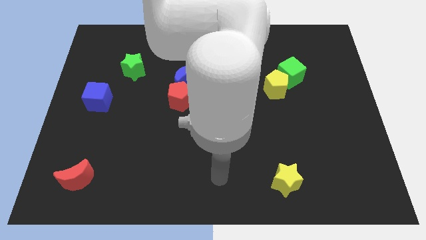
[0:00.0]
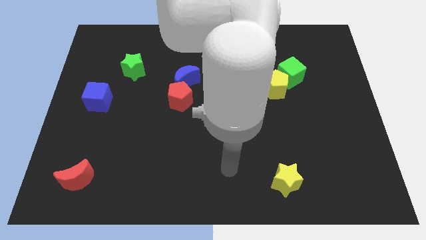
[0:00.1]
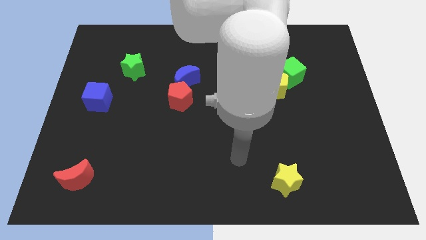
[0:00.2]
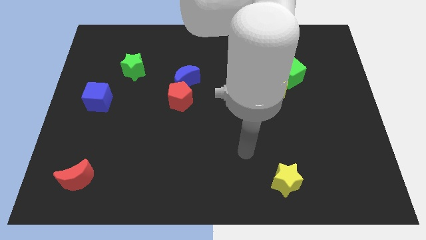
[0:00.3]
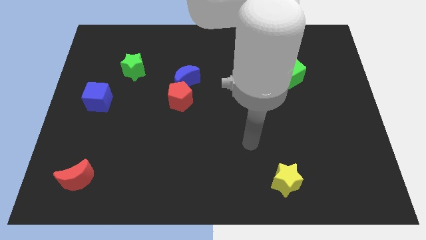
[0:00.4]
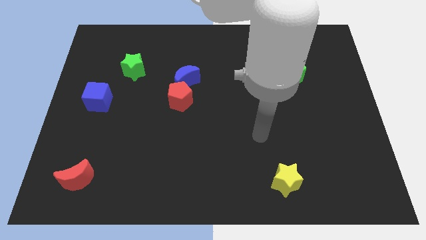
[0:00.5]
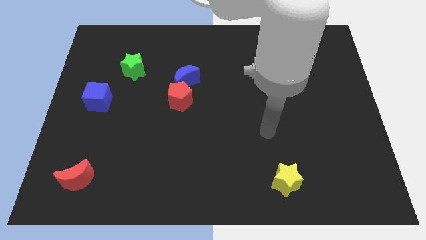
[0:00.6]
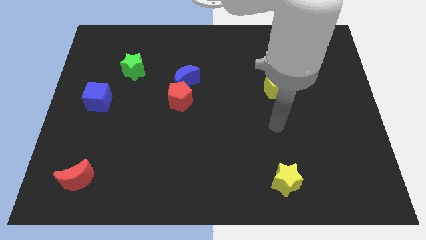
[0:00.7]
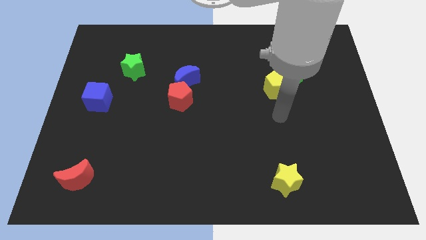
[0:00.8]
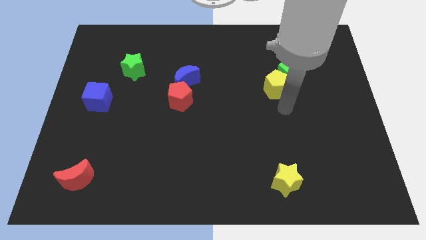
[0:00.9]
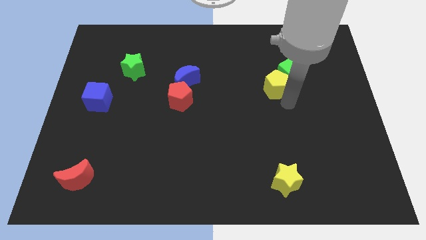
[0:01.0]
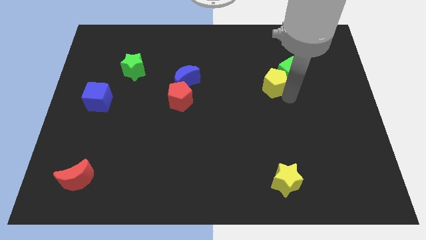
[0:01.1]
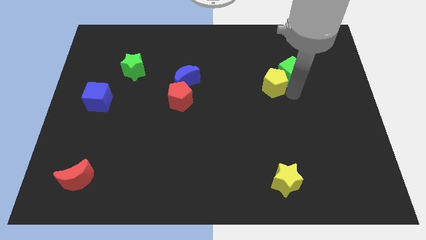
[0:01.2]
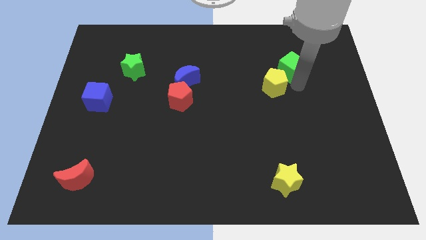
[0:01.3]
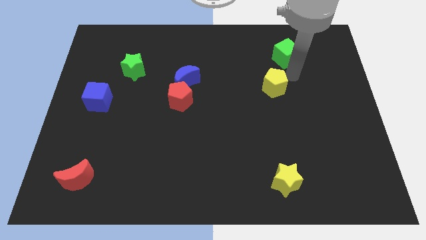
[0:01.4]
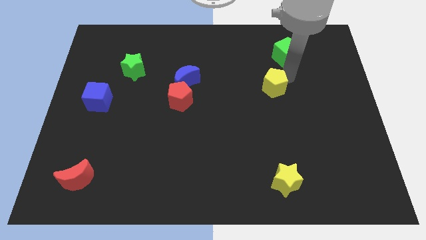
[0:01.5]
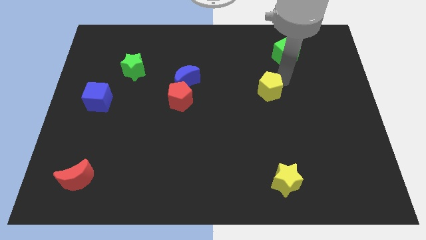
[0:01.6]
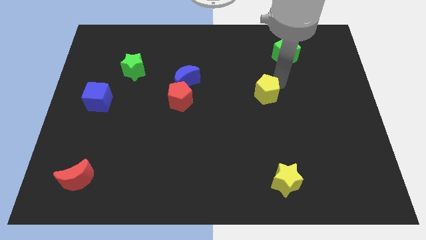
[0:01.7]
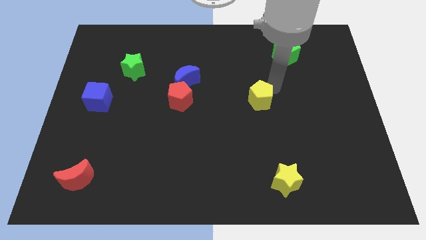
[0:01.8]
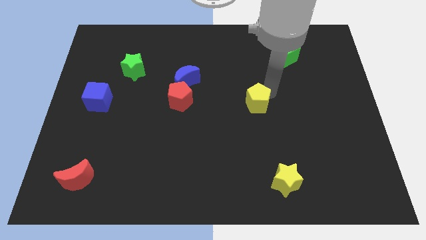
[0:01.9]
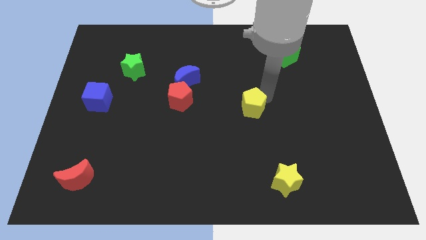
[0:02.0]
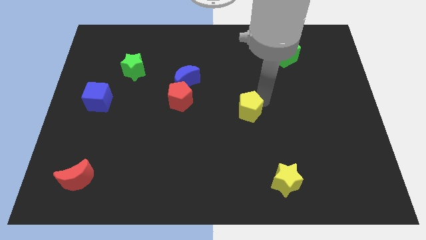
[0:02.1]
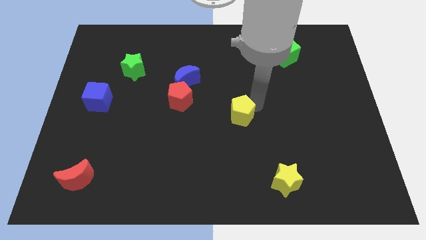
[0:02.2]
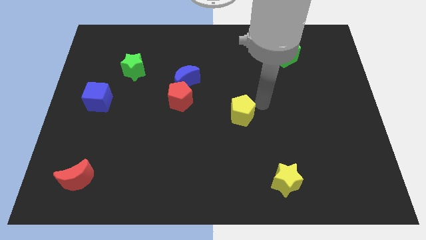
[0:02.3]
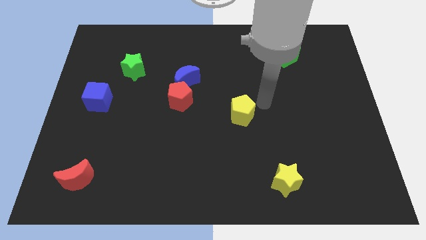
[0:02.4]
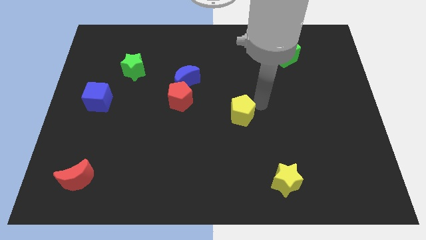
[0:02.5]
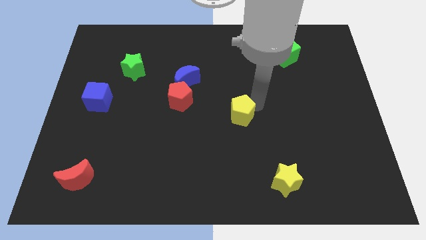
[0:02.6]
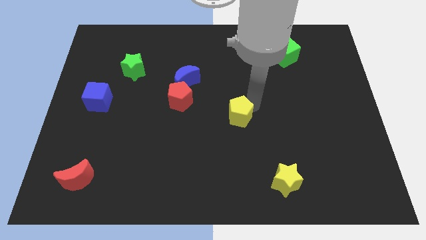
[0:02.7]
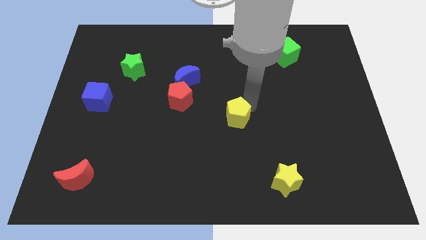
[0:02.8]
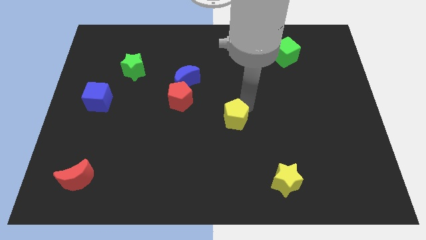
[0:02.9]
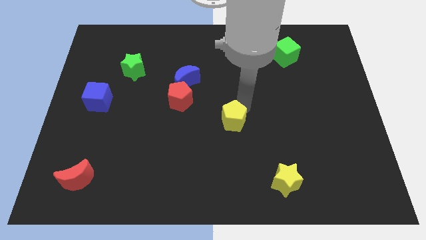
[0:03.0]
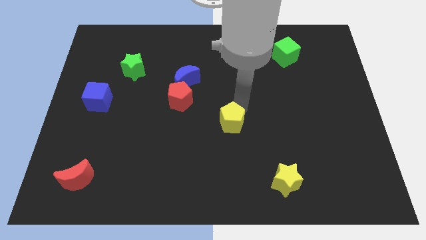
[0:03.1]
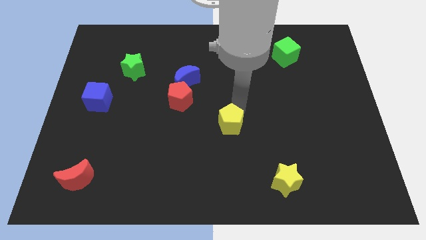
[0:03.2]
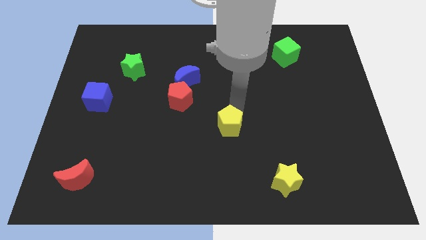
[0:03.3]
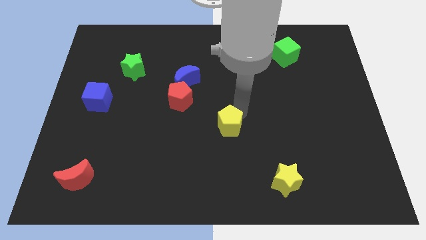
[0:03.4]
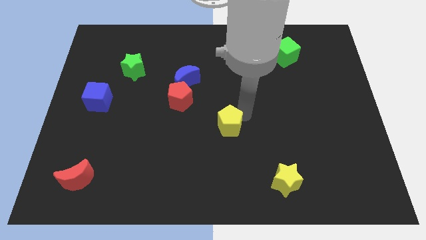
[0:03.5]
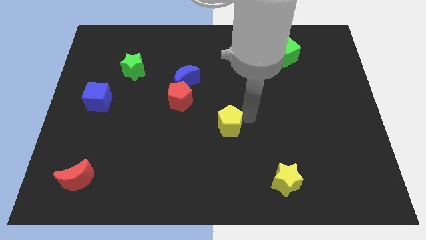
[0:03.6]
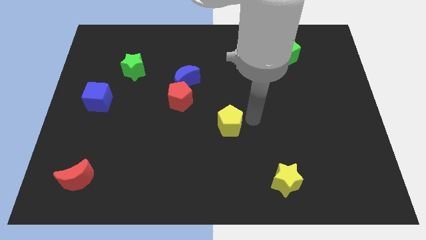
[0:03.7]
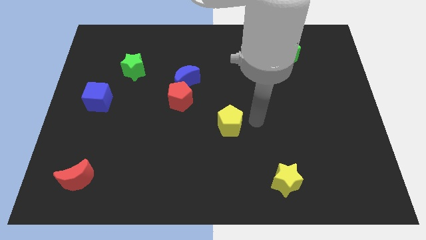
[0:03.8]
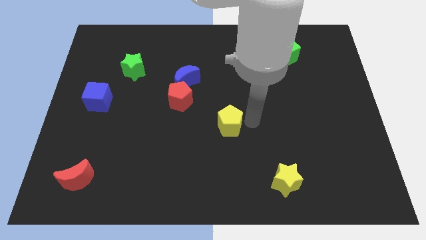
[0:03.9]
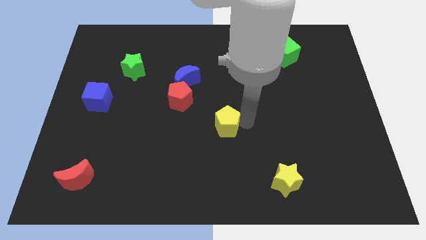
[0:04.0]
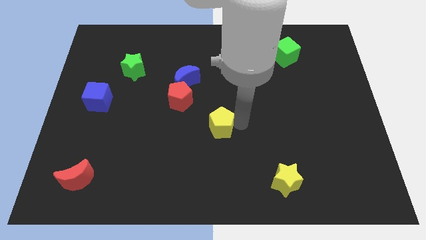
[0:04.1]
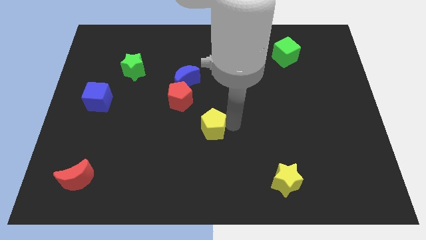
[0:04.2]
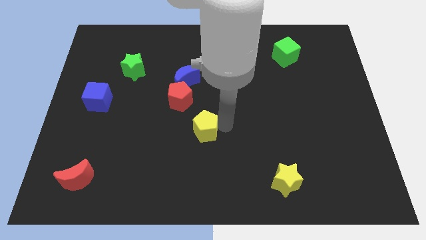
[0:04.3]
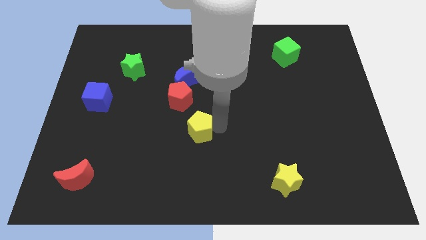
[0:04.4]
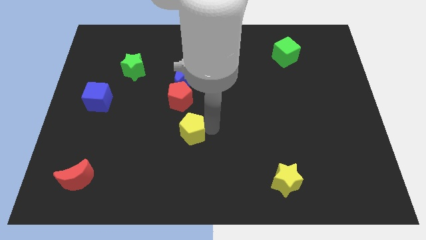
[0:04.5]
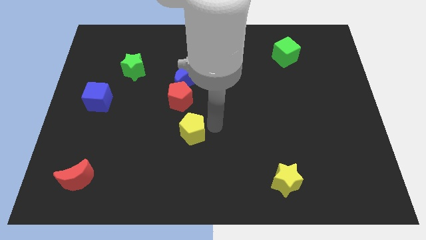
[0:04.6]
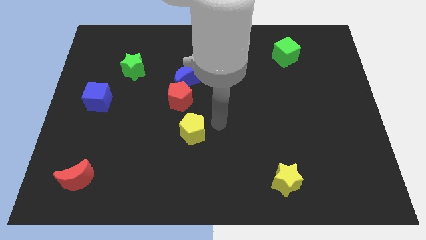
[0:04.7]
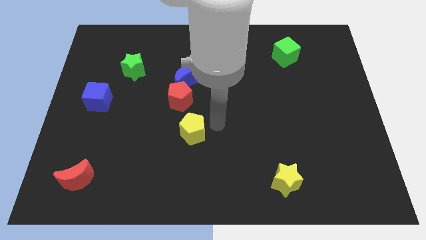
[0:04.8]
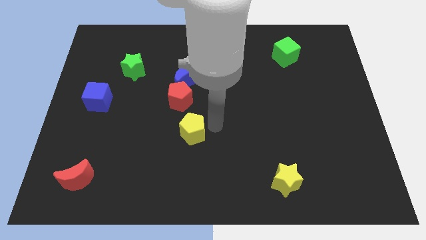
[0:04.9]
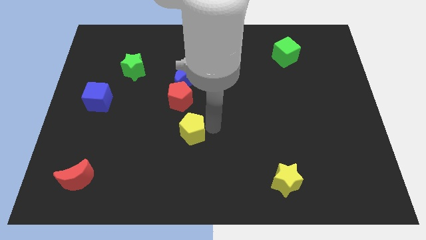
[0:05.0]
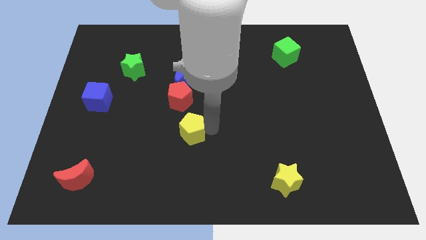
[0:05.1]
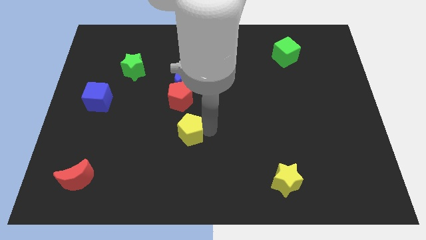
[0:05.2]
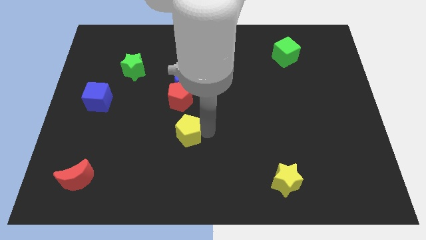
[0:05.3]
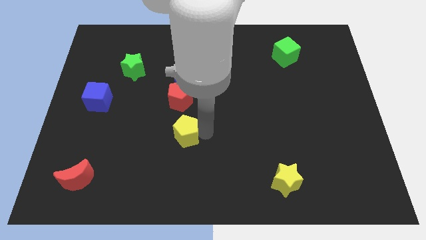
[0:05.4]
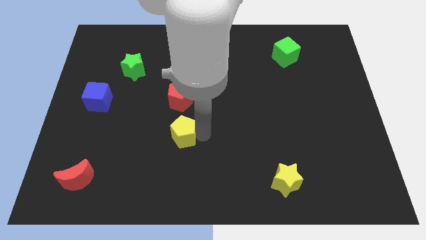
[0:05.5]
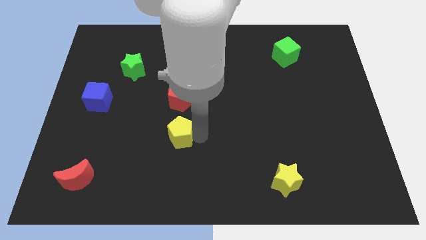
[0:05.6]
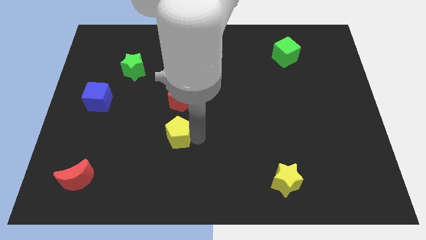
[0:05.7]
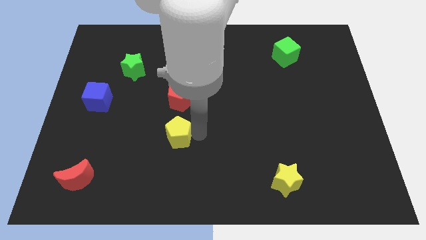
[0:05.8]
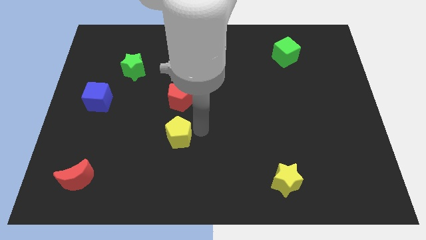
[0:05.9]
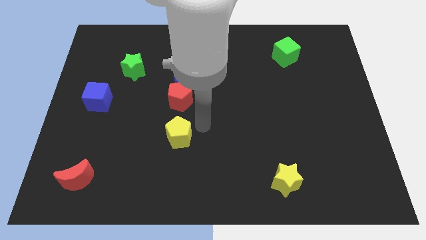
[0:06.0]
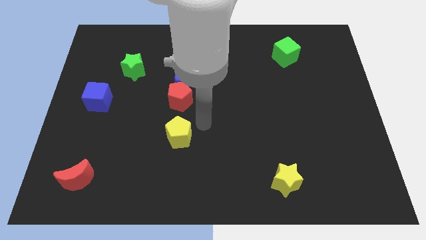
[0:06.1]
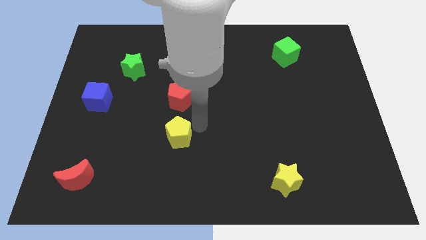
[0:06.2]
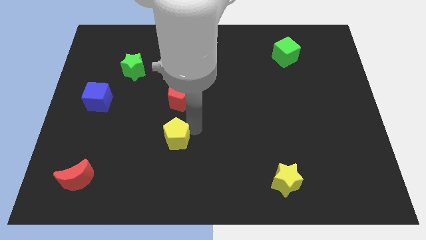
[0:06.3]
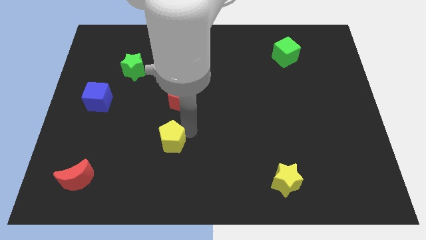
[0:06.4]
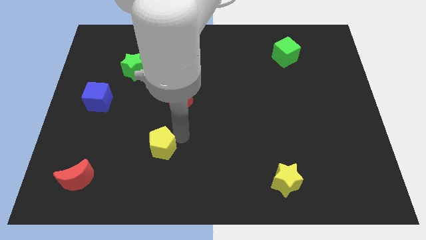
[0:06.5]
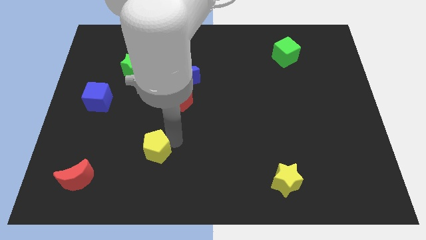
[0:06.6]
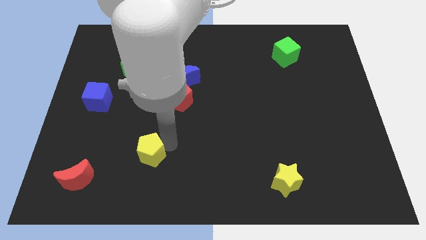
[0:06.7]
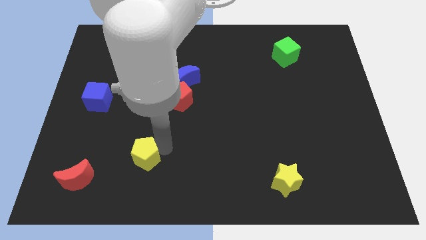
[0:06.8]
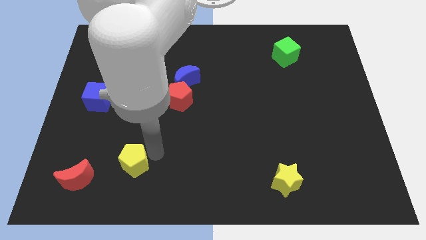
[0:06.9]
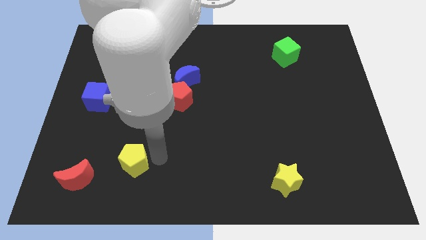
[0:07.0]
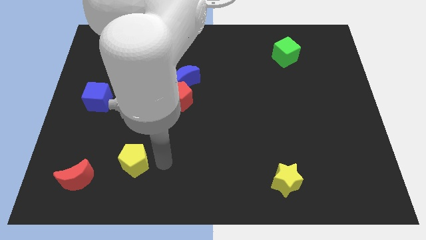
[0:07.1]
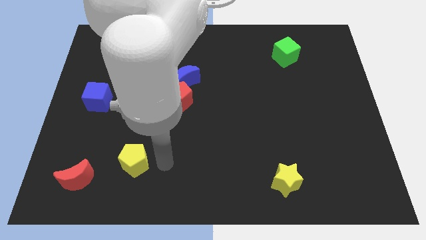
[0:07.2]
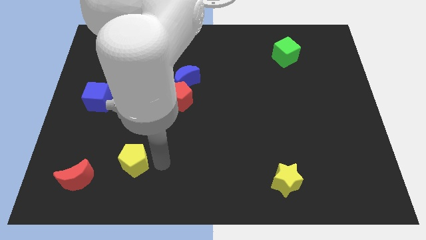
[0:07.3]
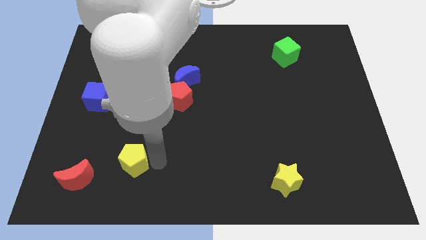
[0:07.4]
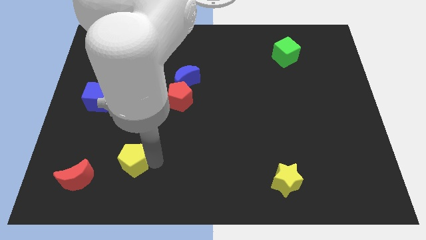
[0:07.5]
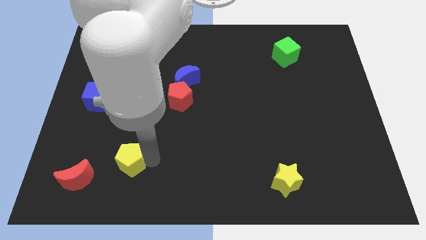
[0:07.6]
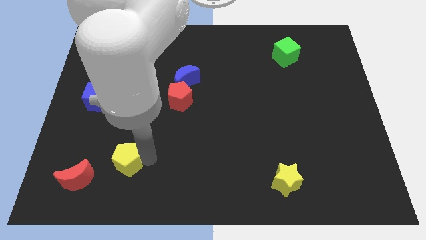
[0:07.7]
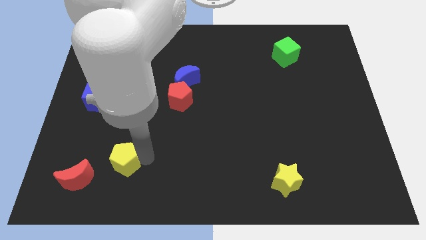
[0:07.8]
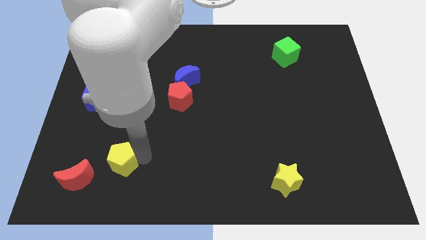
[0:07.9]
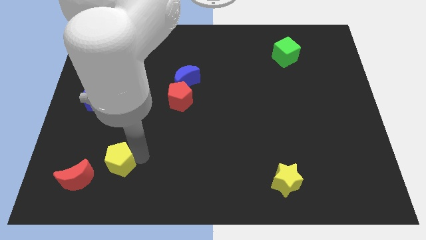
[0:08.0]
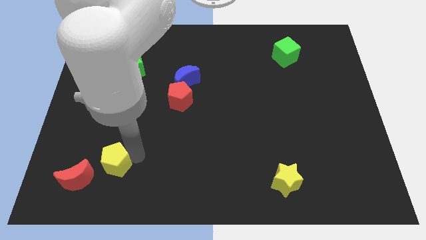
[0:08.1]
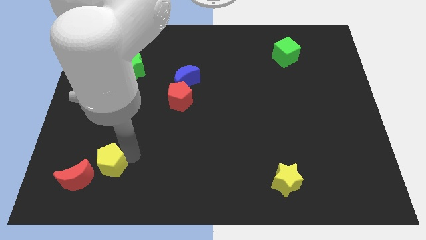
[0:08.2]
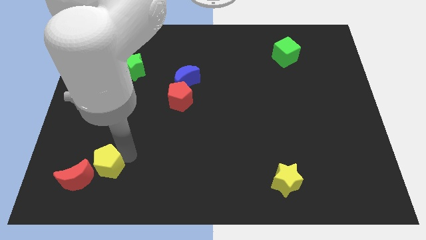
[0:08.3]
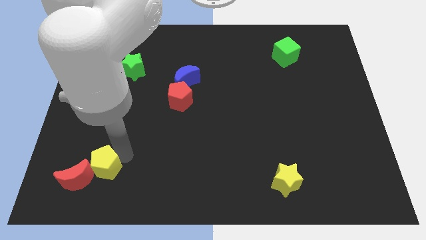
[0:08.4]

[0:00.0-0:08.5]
slide the yellow pentagon next to the red moon
